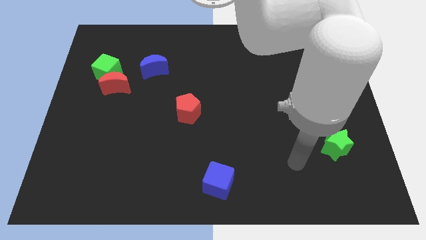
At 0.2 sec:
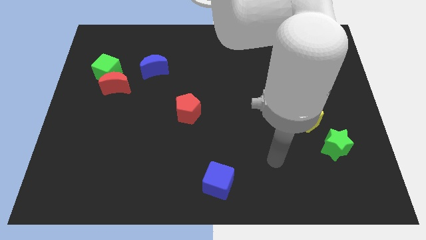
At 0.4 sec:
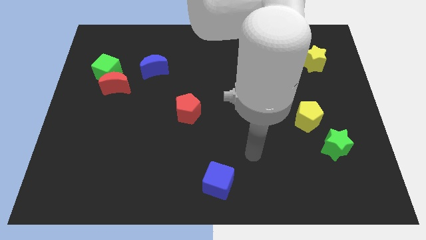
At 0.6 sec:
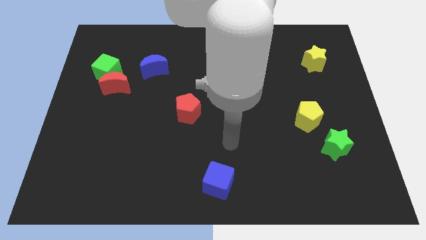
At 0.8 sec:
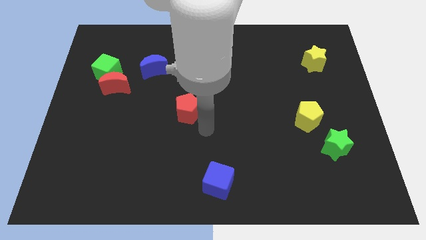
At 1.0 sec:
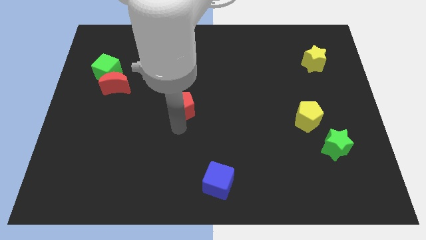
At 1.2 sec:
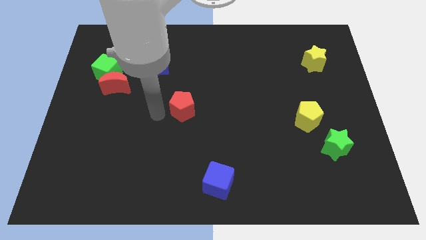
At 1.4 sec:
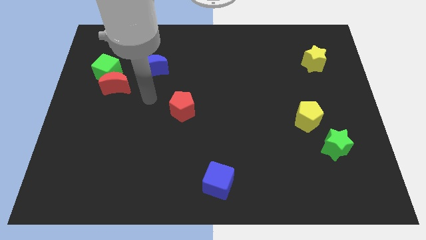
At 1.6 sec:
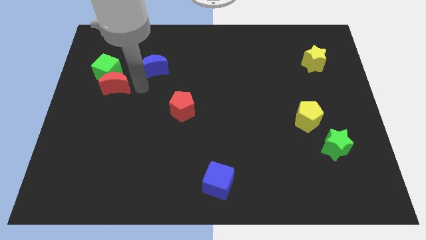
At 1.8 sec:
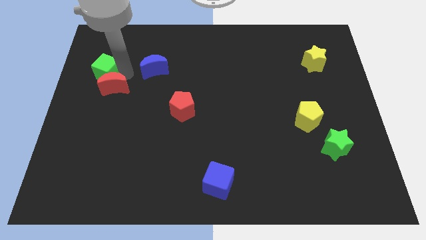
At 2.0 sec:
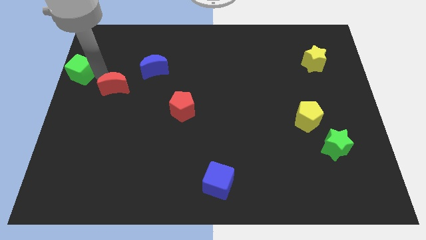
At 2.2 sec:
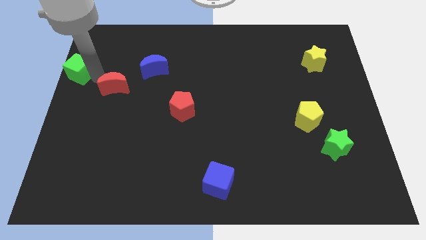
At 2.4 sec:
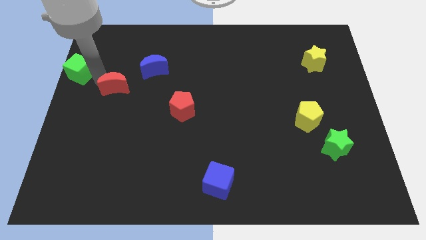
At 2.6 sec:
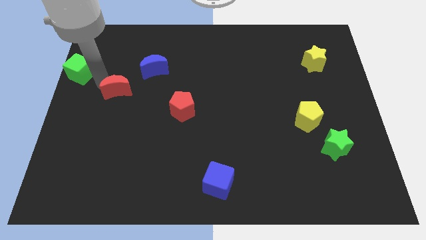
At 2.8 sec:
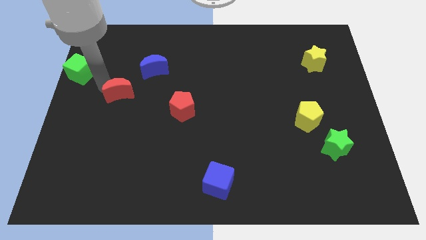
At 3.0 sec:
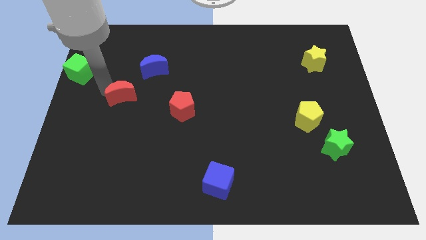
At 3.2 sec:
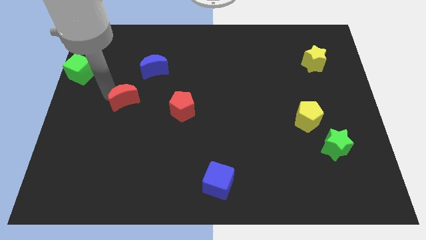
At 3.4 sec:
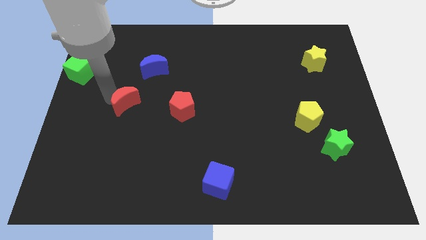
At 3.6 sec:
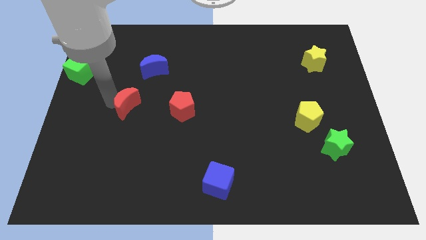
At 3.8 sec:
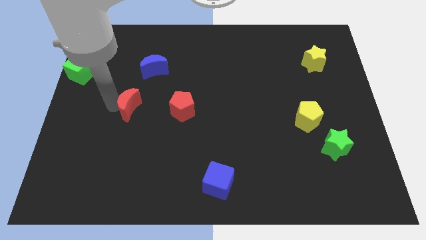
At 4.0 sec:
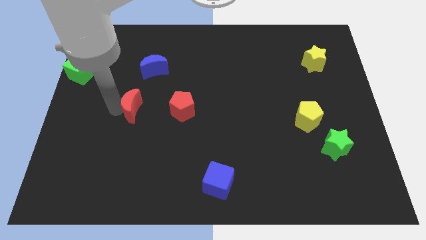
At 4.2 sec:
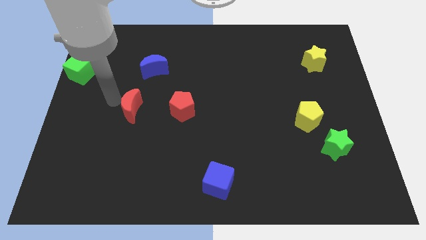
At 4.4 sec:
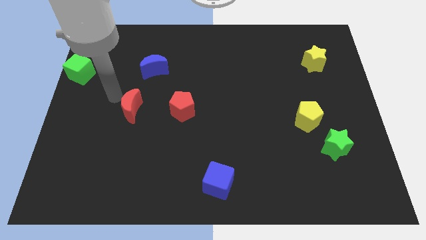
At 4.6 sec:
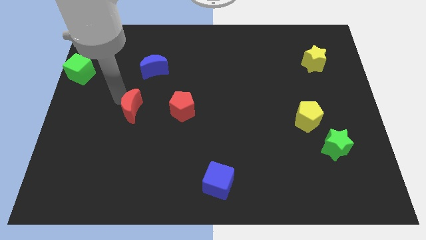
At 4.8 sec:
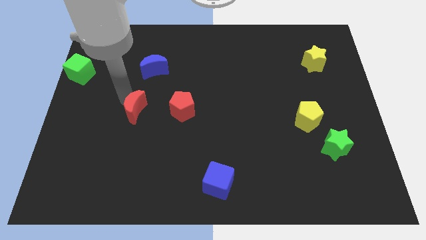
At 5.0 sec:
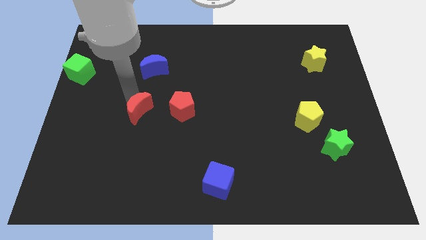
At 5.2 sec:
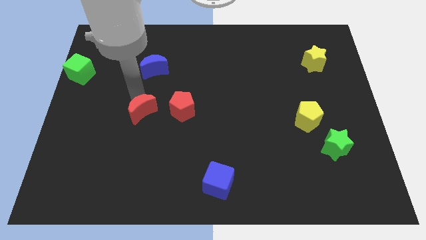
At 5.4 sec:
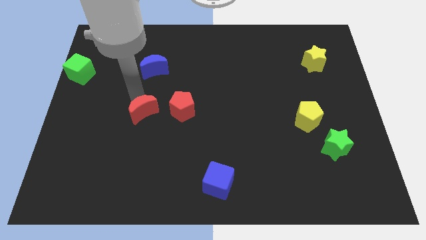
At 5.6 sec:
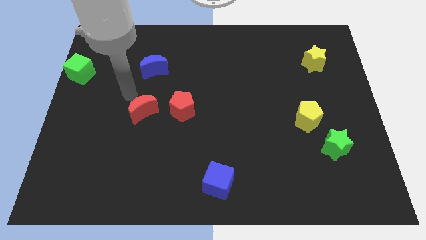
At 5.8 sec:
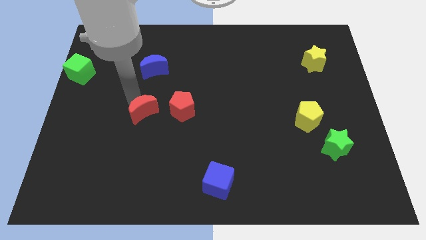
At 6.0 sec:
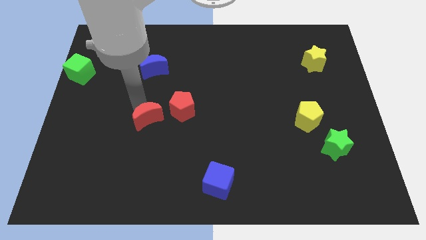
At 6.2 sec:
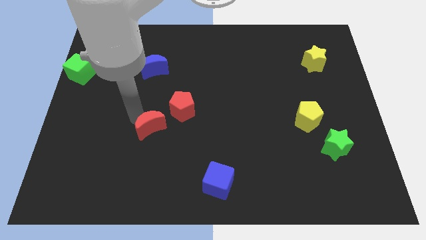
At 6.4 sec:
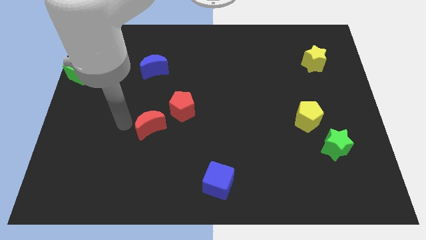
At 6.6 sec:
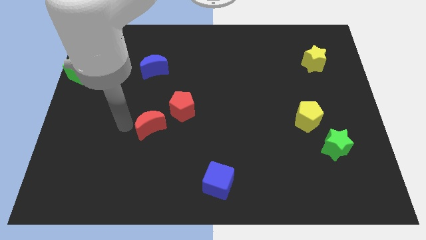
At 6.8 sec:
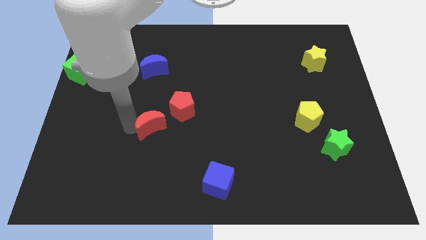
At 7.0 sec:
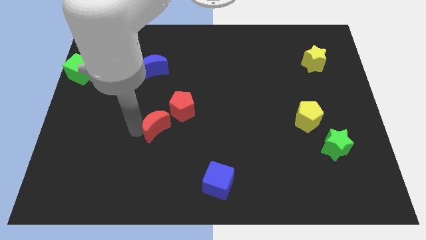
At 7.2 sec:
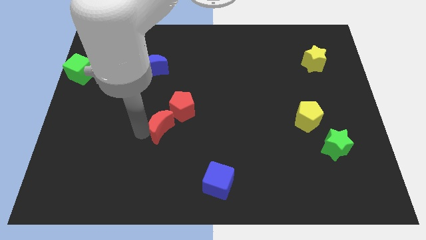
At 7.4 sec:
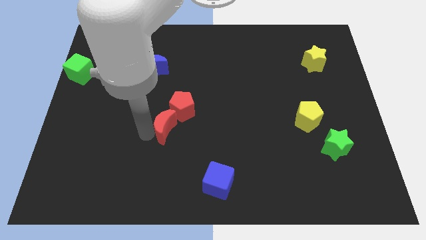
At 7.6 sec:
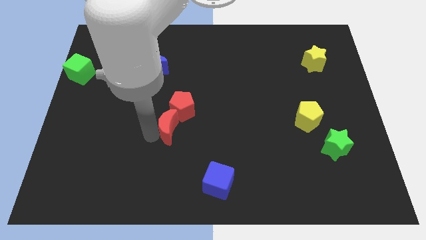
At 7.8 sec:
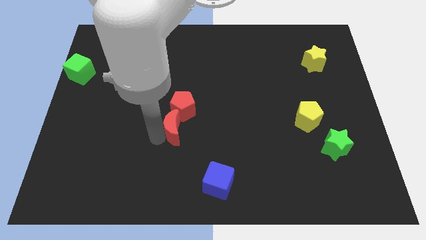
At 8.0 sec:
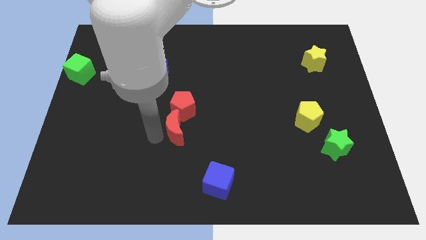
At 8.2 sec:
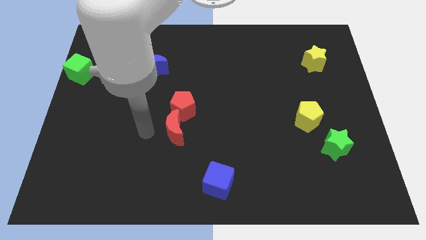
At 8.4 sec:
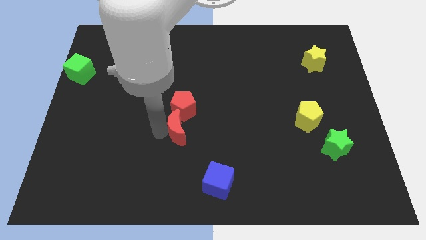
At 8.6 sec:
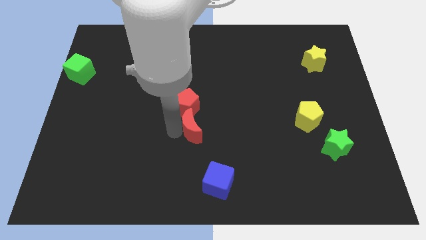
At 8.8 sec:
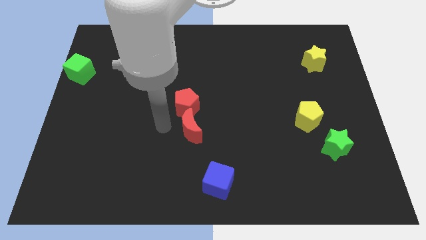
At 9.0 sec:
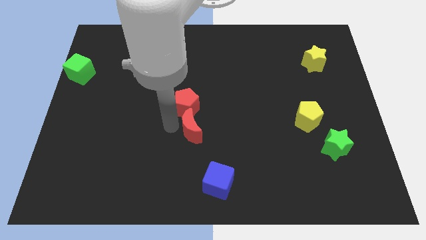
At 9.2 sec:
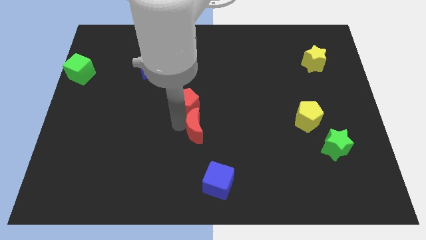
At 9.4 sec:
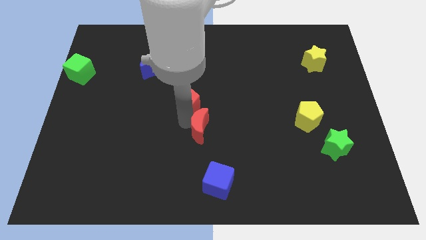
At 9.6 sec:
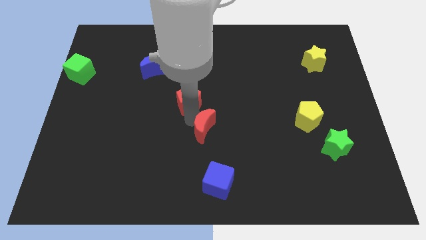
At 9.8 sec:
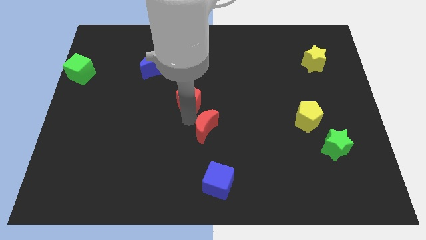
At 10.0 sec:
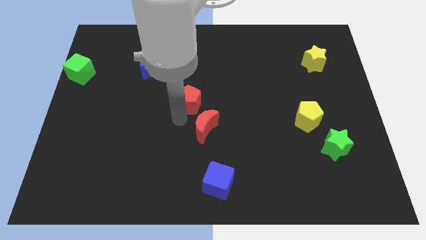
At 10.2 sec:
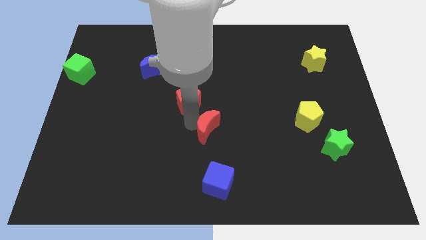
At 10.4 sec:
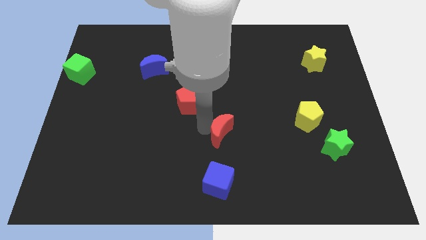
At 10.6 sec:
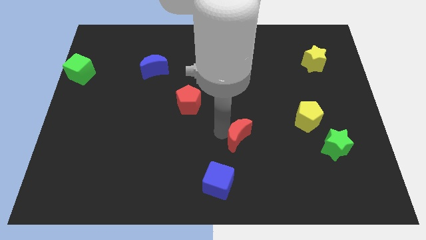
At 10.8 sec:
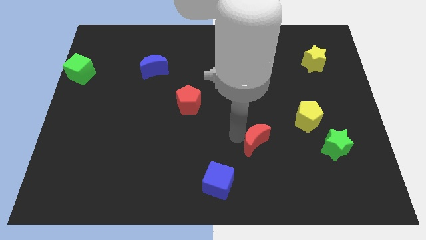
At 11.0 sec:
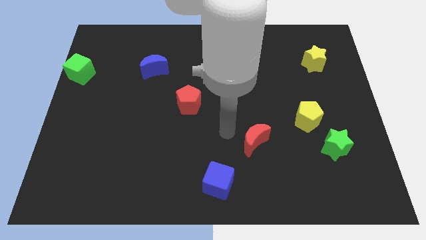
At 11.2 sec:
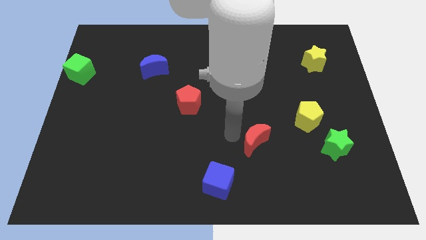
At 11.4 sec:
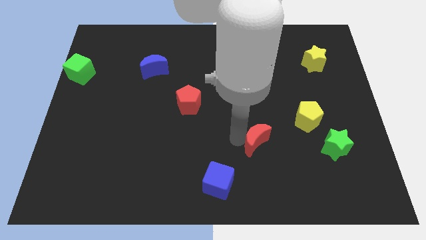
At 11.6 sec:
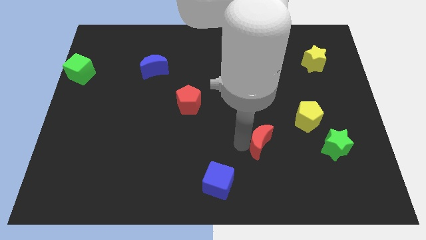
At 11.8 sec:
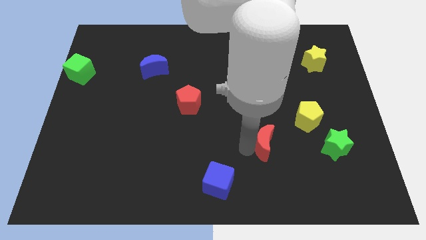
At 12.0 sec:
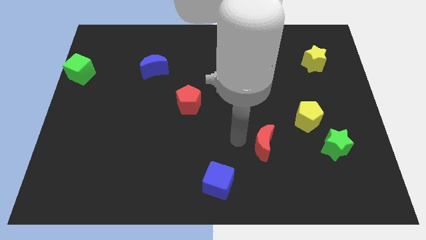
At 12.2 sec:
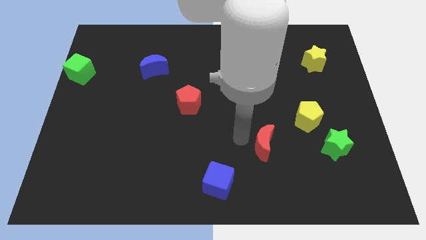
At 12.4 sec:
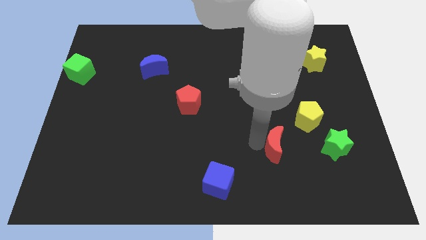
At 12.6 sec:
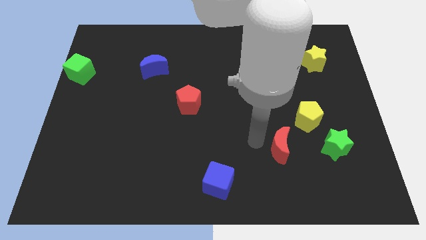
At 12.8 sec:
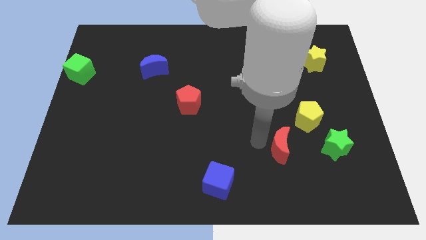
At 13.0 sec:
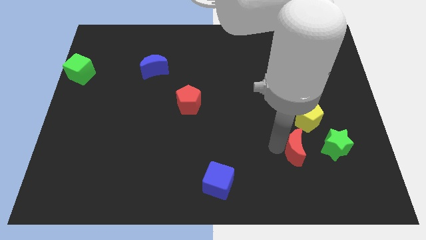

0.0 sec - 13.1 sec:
slide the red moon to the bottom of the yellow pentagon
